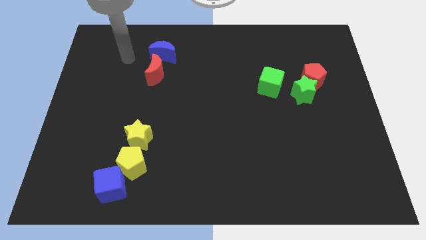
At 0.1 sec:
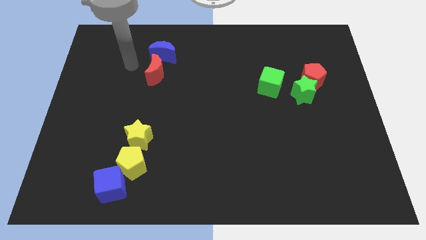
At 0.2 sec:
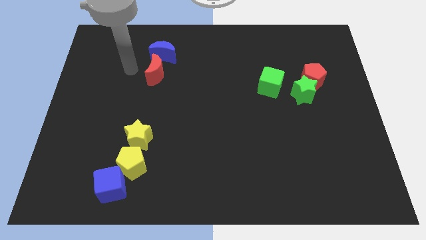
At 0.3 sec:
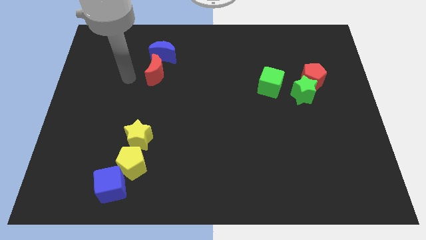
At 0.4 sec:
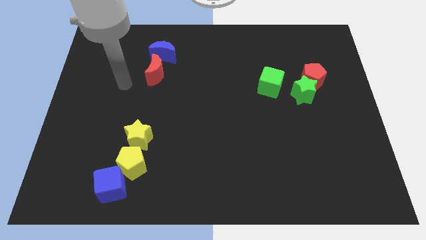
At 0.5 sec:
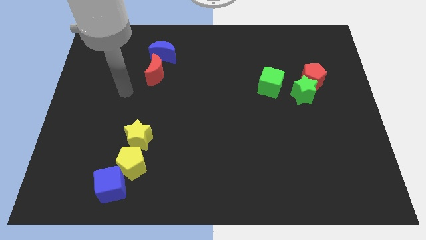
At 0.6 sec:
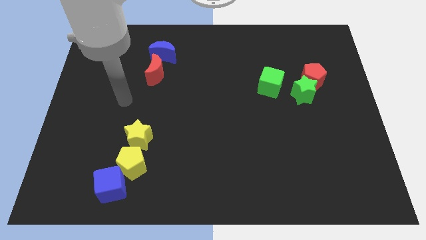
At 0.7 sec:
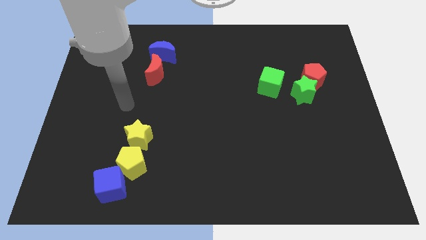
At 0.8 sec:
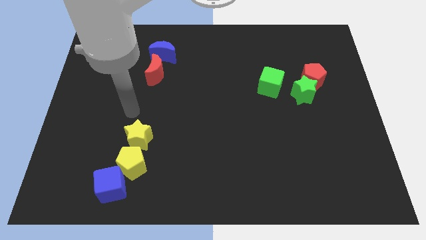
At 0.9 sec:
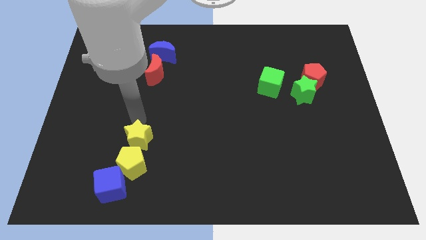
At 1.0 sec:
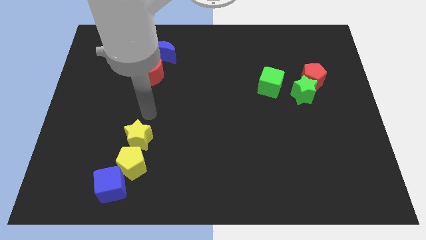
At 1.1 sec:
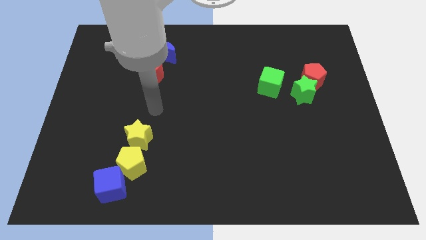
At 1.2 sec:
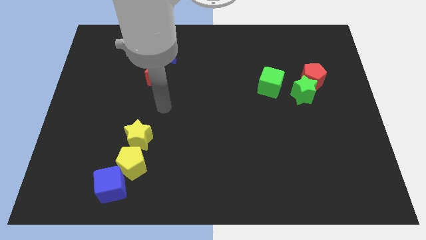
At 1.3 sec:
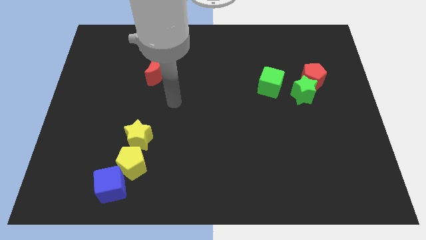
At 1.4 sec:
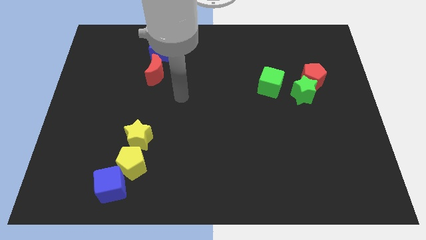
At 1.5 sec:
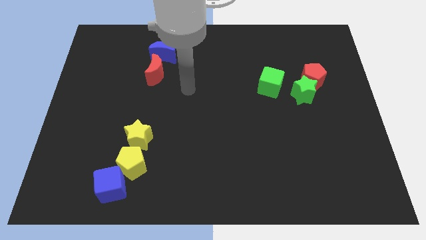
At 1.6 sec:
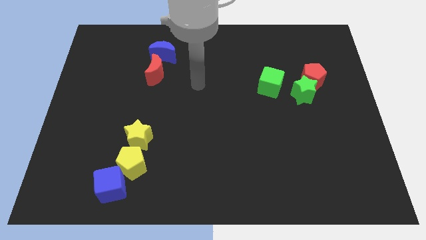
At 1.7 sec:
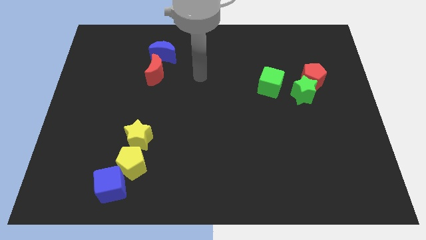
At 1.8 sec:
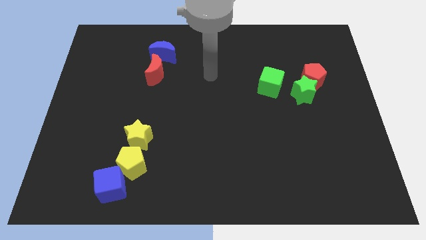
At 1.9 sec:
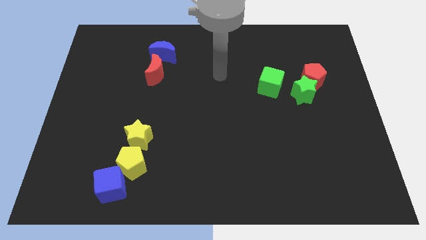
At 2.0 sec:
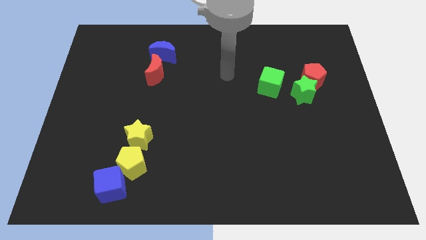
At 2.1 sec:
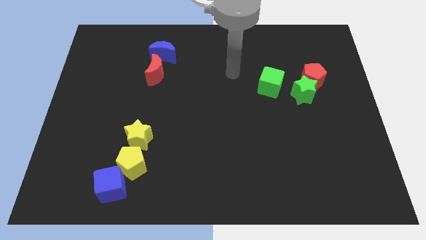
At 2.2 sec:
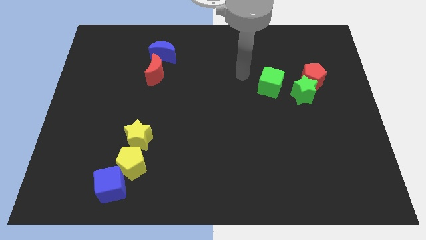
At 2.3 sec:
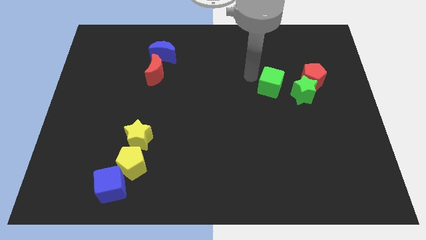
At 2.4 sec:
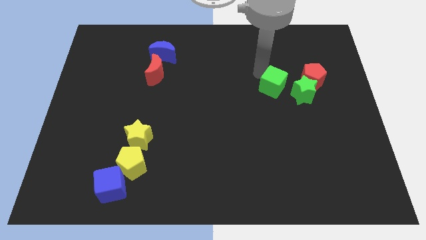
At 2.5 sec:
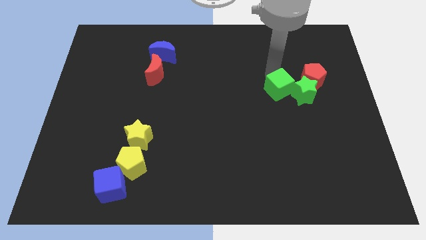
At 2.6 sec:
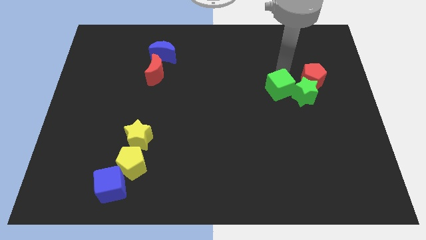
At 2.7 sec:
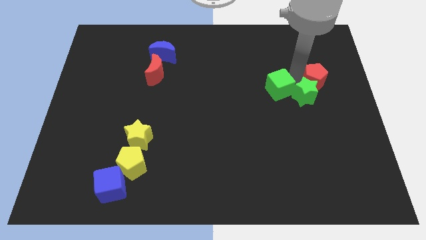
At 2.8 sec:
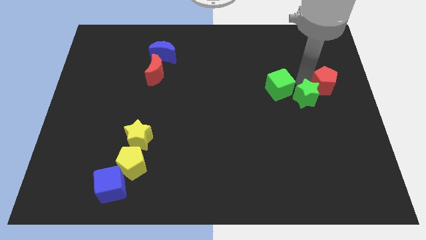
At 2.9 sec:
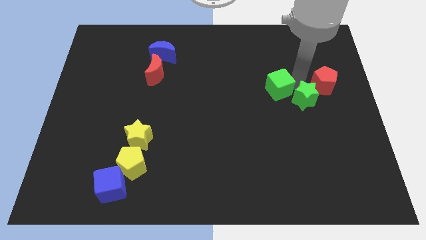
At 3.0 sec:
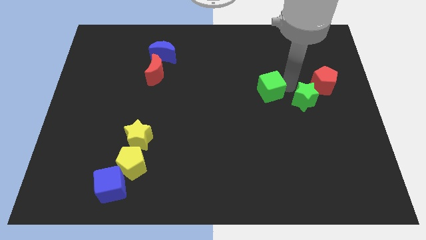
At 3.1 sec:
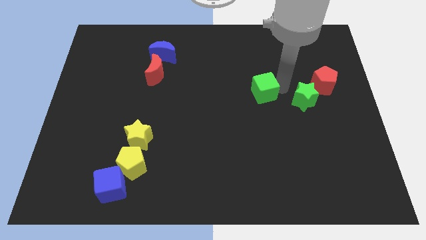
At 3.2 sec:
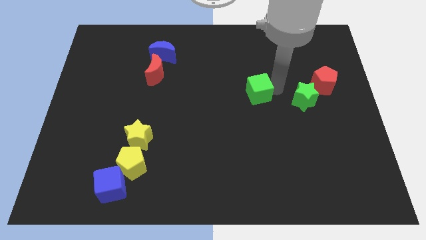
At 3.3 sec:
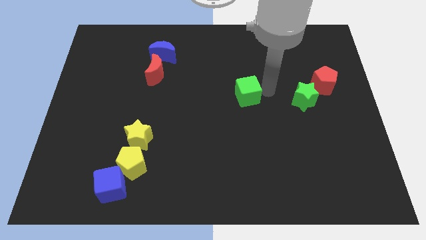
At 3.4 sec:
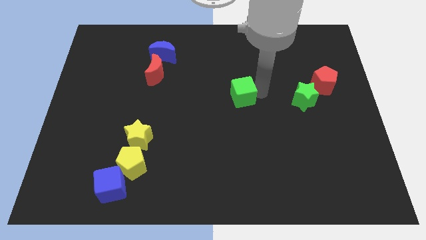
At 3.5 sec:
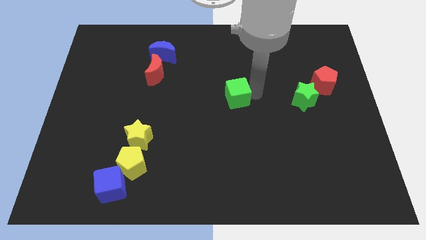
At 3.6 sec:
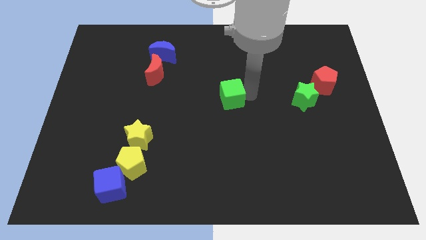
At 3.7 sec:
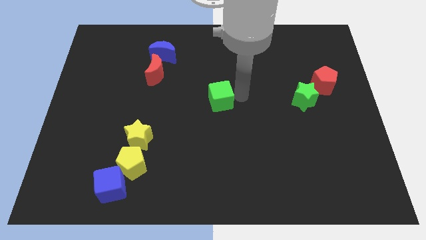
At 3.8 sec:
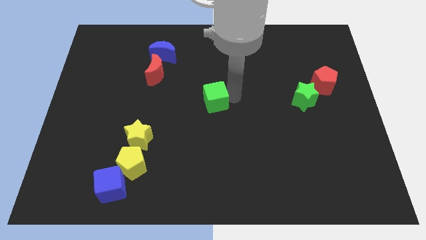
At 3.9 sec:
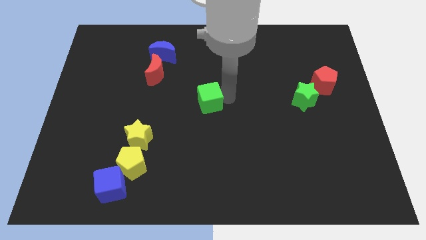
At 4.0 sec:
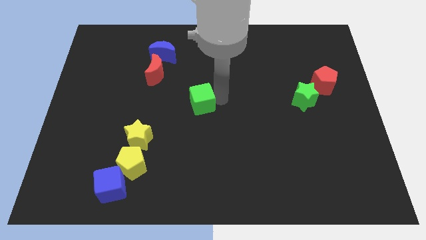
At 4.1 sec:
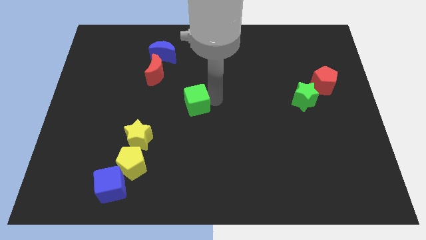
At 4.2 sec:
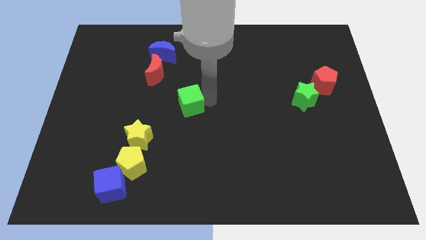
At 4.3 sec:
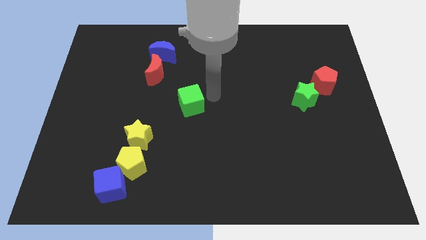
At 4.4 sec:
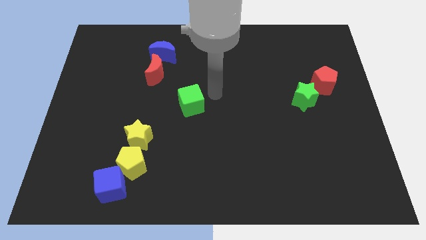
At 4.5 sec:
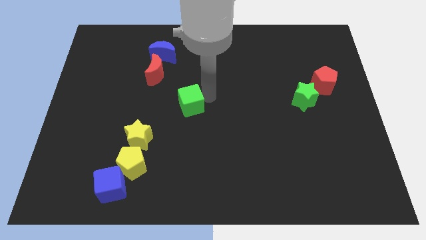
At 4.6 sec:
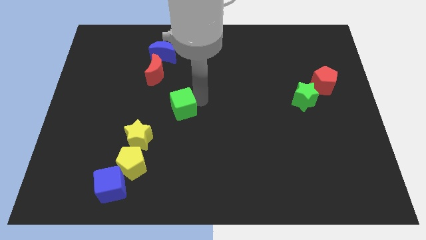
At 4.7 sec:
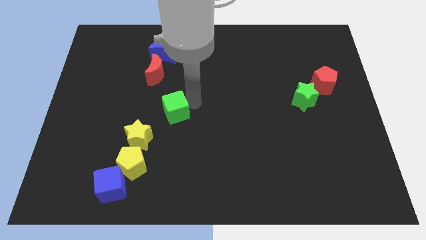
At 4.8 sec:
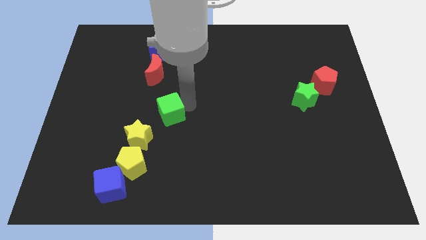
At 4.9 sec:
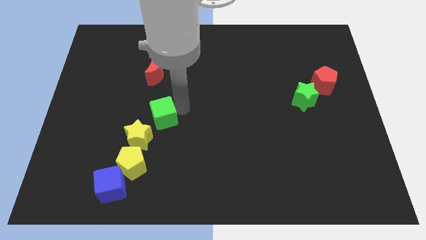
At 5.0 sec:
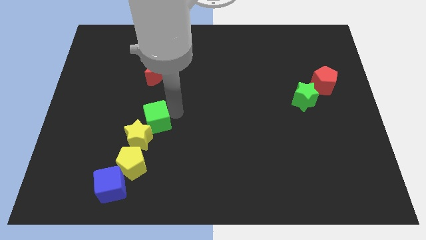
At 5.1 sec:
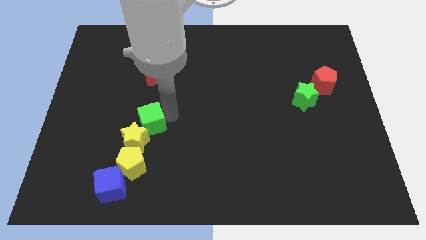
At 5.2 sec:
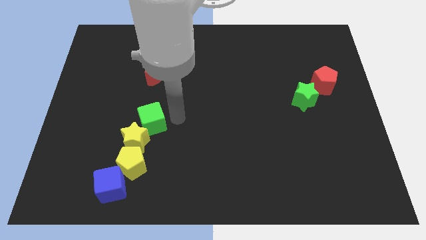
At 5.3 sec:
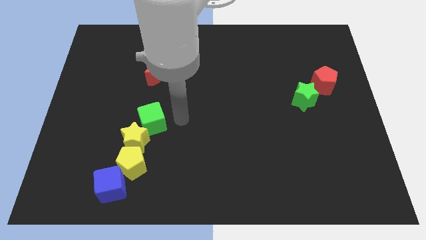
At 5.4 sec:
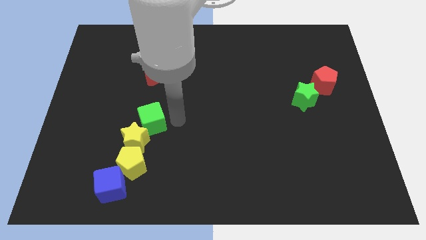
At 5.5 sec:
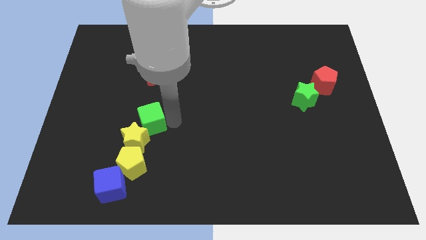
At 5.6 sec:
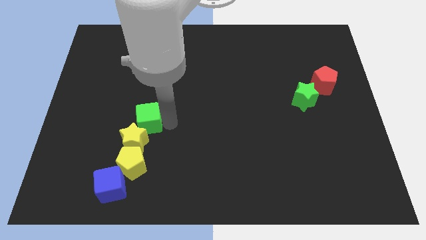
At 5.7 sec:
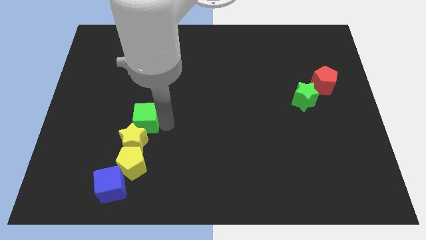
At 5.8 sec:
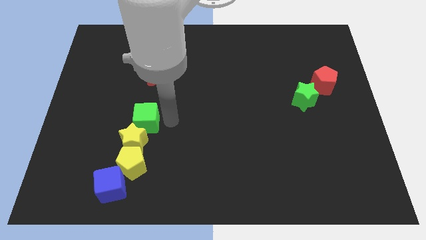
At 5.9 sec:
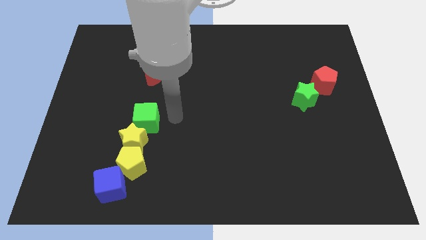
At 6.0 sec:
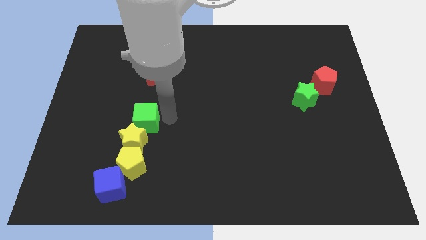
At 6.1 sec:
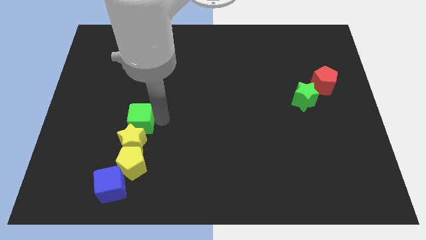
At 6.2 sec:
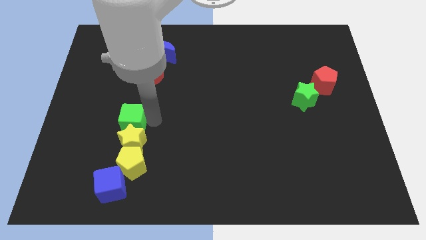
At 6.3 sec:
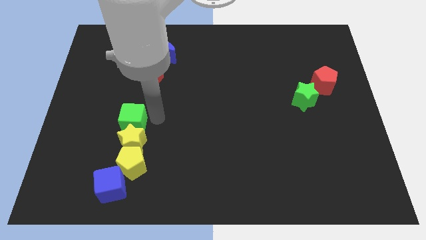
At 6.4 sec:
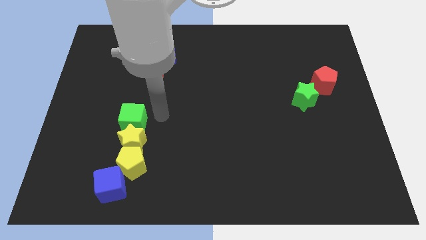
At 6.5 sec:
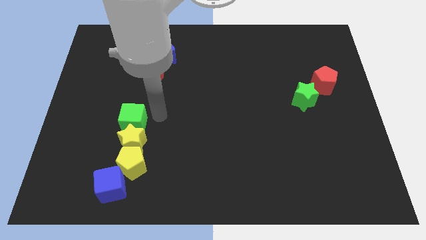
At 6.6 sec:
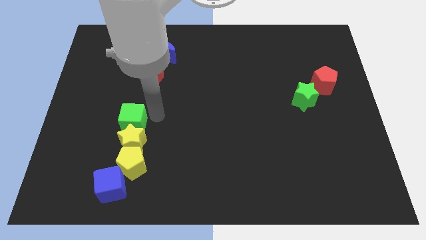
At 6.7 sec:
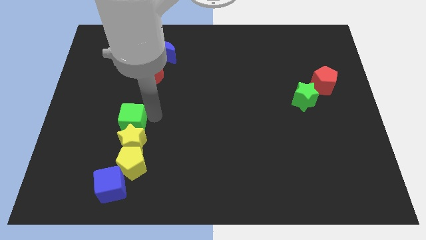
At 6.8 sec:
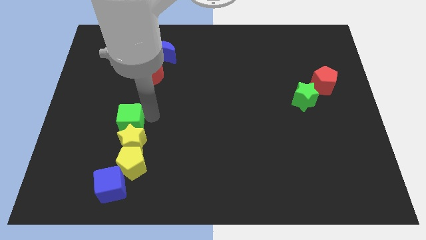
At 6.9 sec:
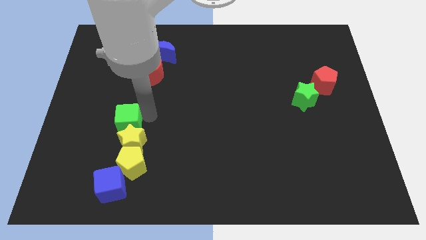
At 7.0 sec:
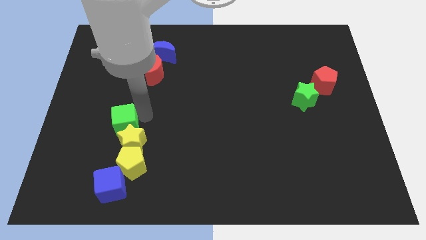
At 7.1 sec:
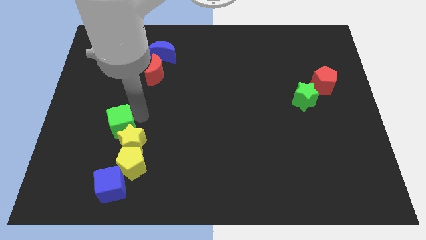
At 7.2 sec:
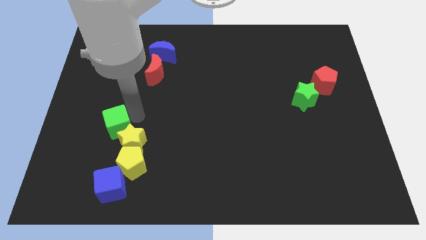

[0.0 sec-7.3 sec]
push the green cube to the left side of the yellow star

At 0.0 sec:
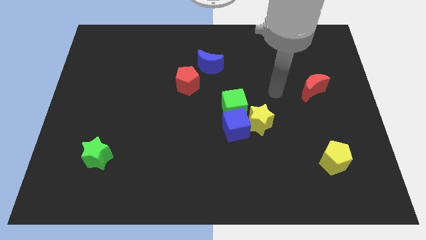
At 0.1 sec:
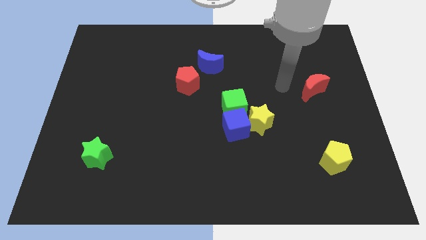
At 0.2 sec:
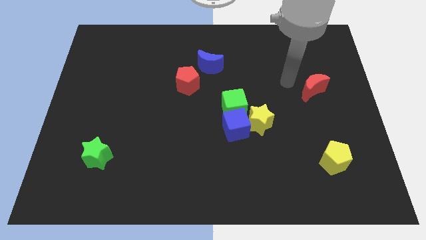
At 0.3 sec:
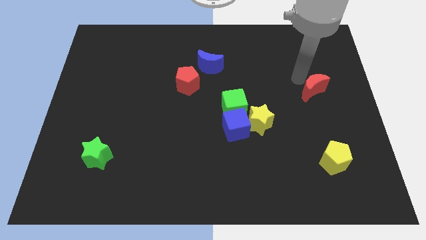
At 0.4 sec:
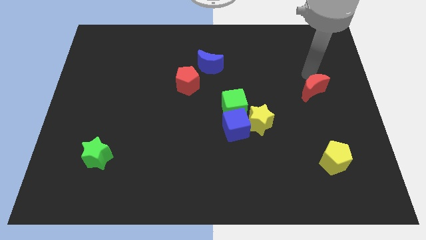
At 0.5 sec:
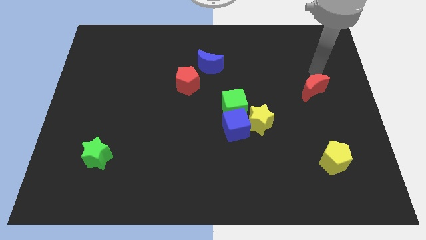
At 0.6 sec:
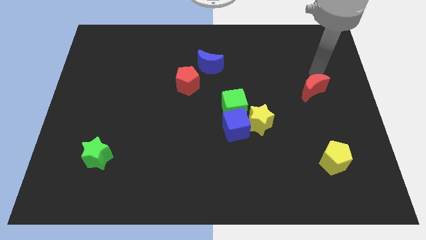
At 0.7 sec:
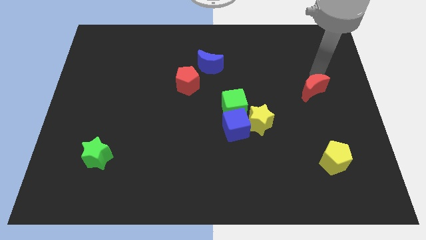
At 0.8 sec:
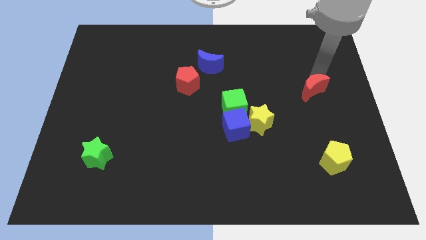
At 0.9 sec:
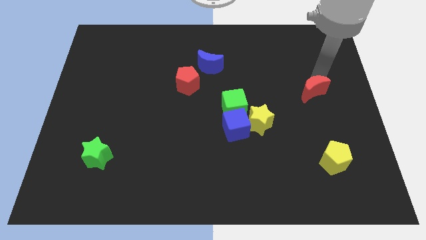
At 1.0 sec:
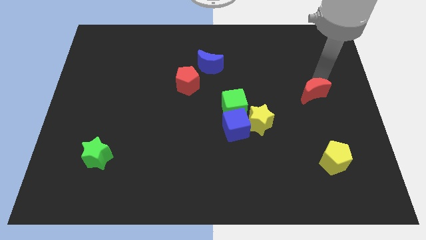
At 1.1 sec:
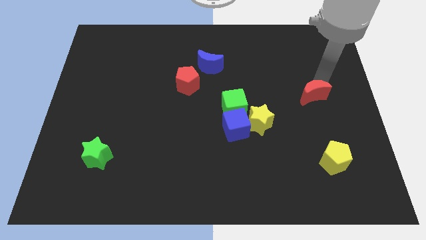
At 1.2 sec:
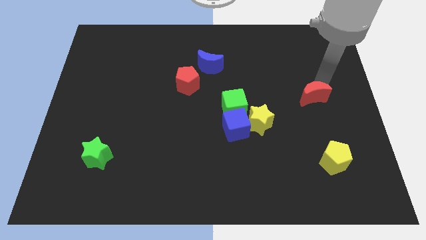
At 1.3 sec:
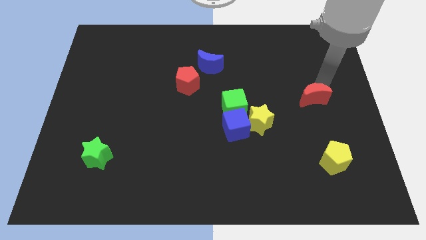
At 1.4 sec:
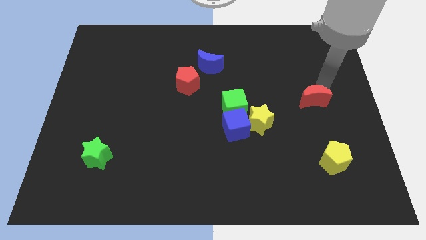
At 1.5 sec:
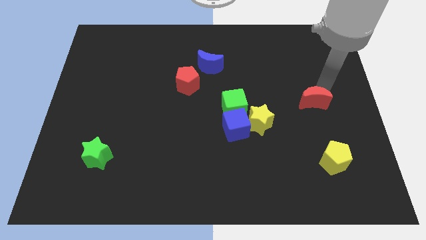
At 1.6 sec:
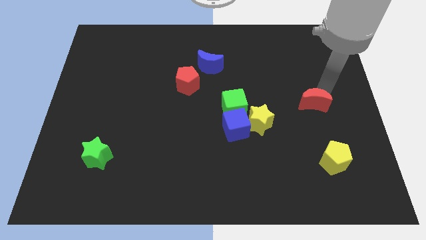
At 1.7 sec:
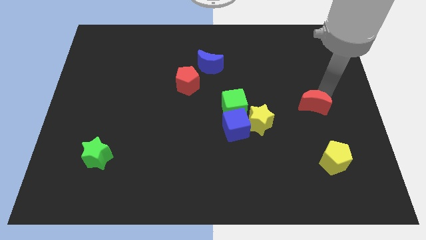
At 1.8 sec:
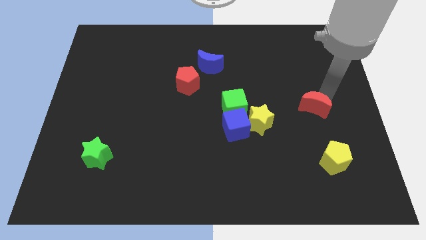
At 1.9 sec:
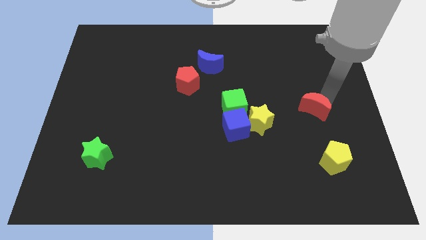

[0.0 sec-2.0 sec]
move the red moon right of the yellow star
